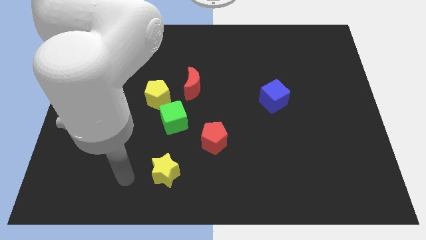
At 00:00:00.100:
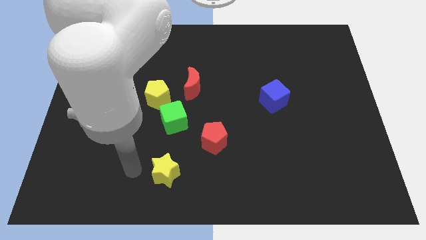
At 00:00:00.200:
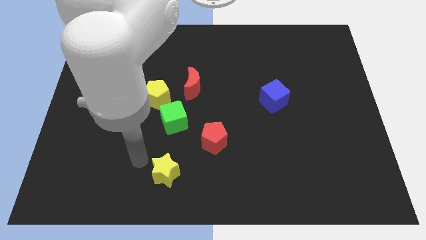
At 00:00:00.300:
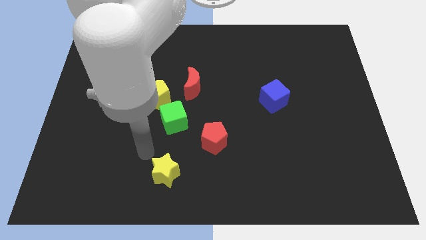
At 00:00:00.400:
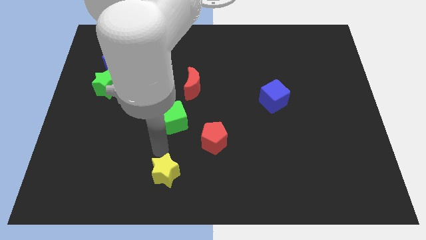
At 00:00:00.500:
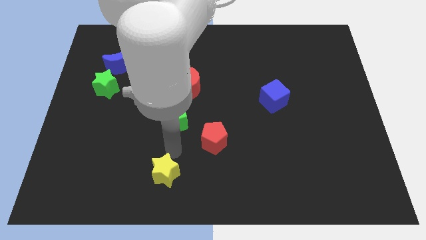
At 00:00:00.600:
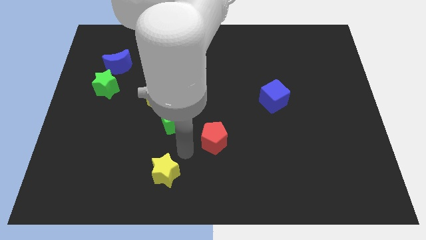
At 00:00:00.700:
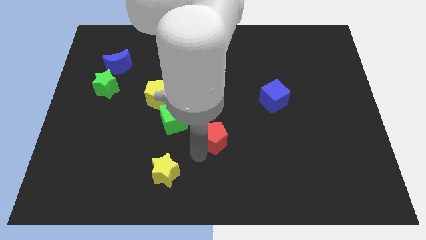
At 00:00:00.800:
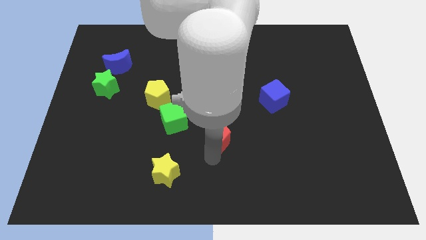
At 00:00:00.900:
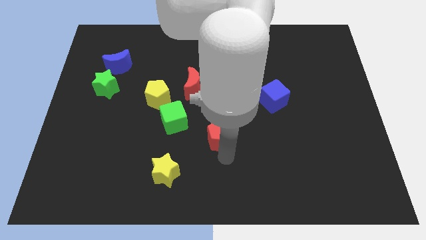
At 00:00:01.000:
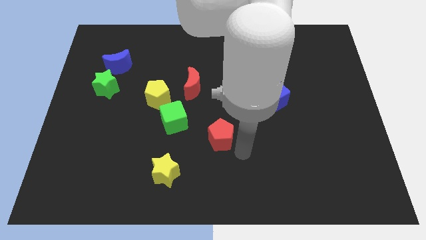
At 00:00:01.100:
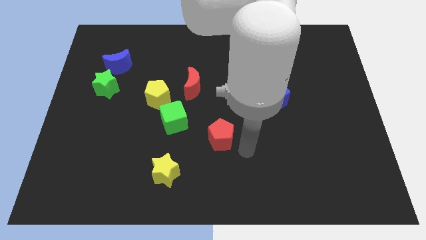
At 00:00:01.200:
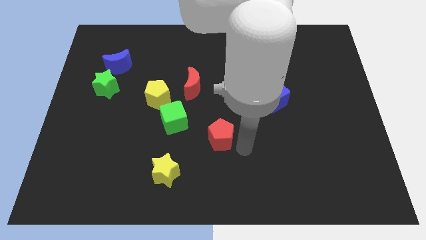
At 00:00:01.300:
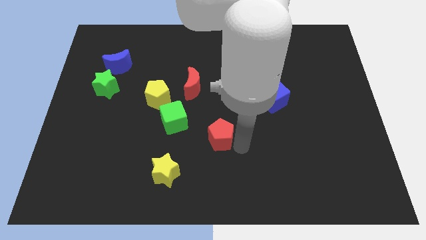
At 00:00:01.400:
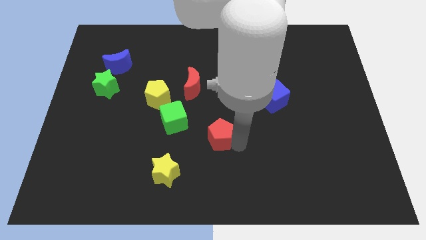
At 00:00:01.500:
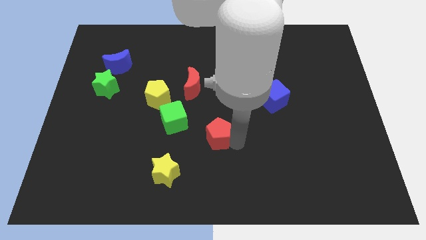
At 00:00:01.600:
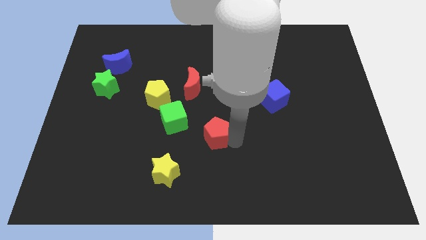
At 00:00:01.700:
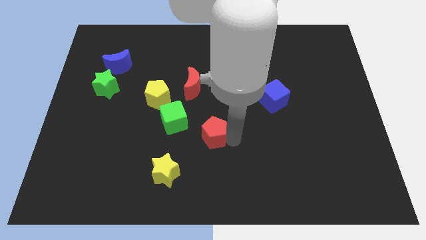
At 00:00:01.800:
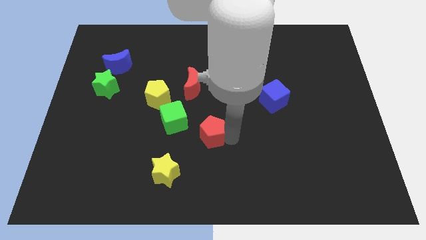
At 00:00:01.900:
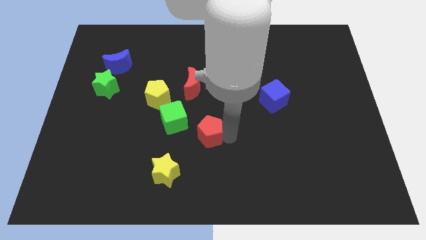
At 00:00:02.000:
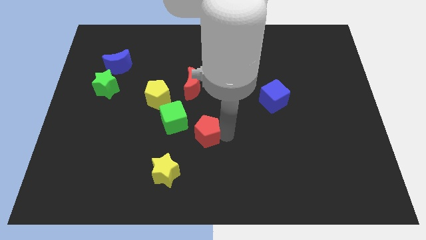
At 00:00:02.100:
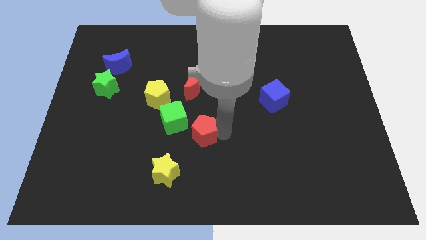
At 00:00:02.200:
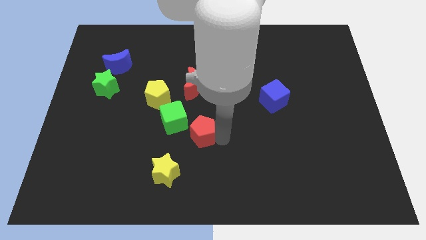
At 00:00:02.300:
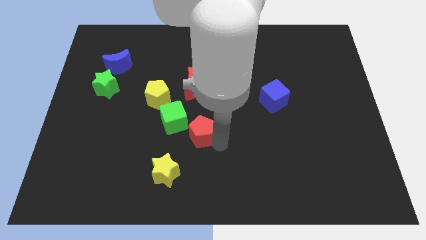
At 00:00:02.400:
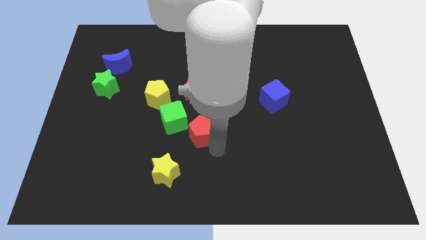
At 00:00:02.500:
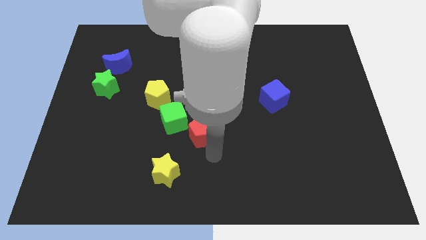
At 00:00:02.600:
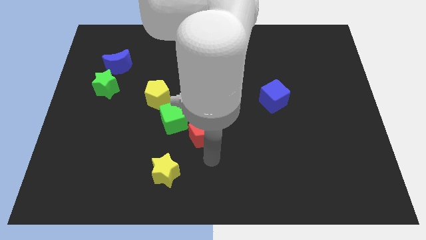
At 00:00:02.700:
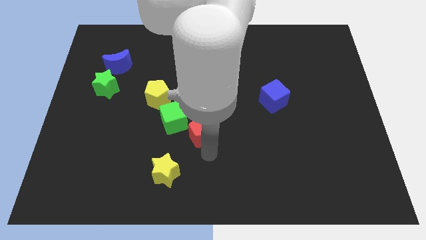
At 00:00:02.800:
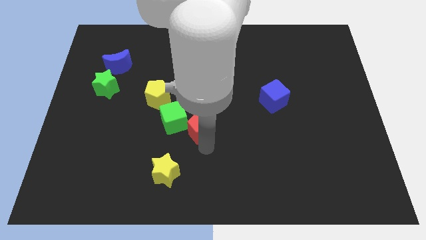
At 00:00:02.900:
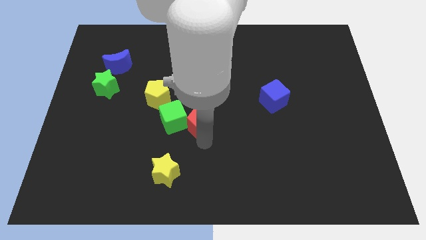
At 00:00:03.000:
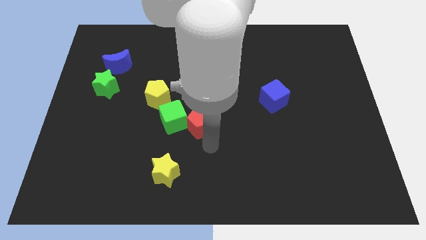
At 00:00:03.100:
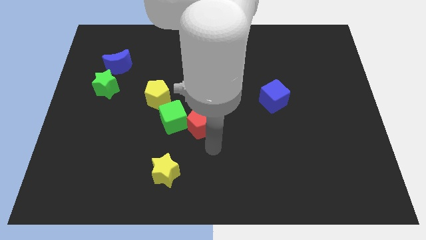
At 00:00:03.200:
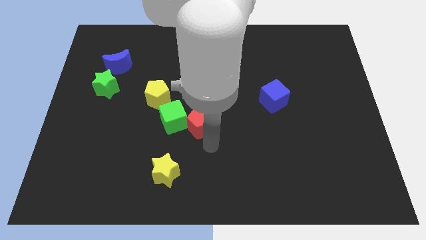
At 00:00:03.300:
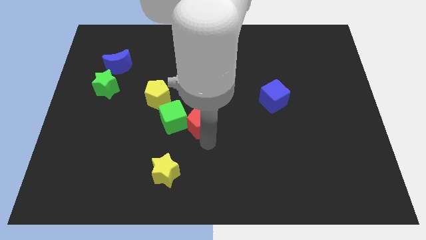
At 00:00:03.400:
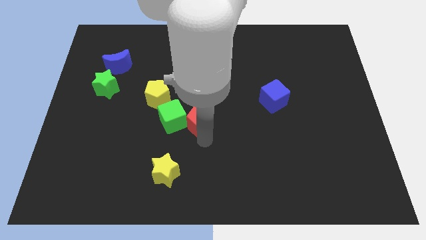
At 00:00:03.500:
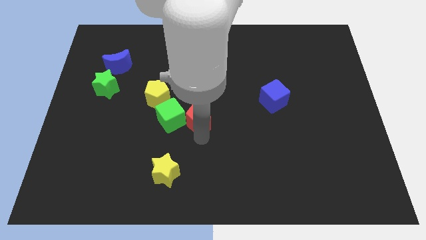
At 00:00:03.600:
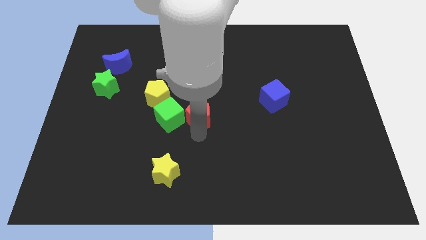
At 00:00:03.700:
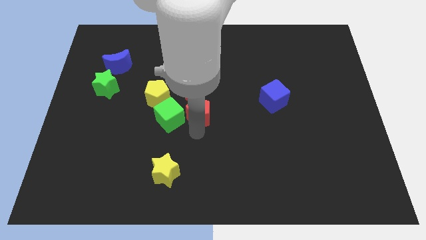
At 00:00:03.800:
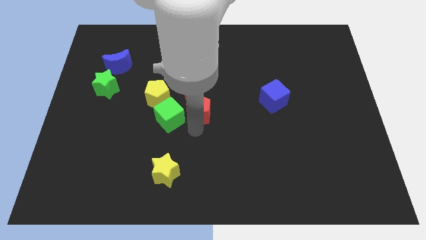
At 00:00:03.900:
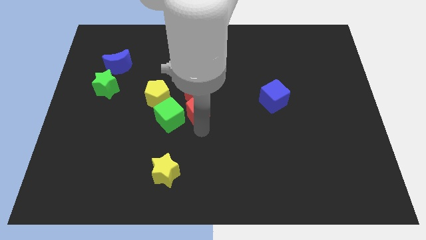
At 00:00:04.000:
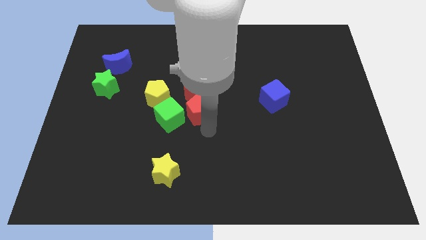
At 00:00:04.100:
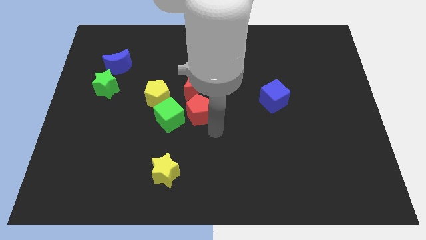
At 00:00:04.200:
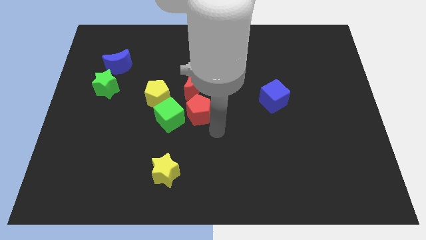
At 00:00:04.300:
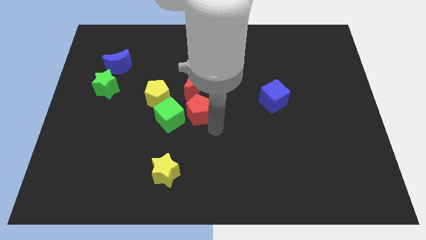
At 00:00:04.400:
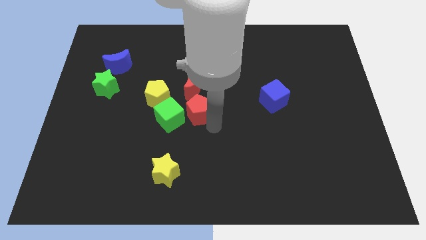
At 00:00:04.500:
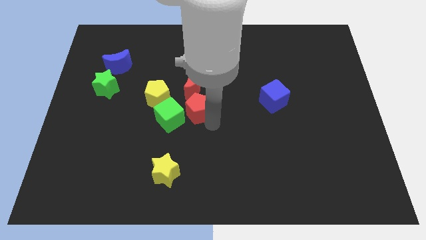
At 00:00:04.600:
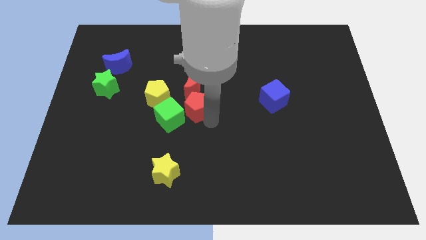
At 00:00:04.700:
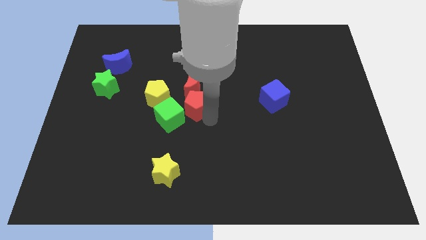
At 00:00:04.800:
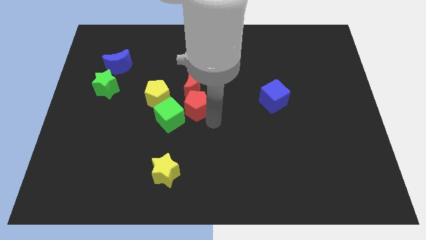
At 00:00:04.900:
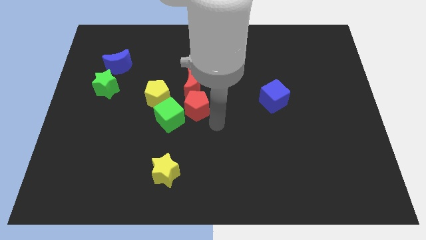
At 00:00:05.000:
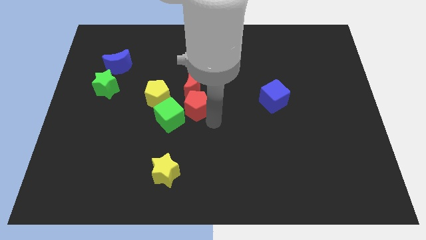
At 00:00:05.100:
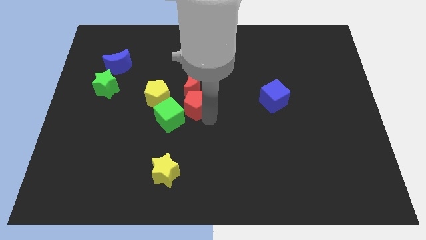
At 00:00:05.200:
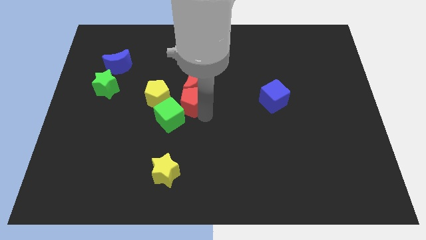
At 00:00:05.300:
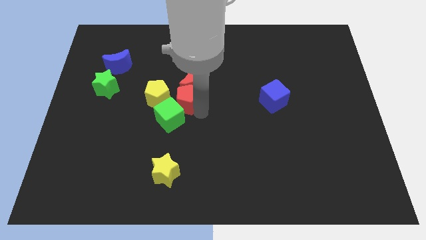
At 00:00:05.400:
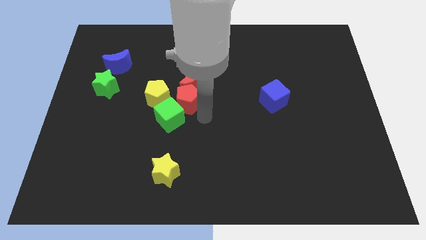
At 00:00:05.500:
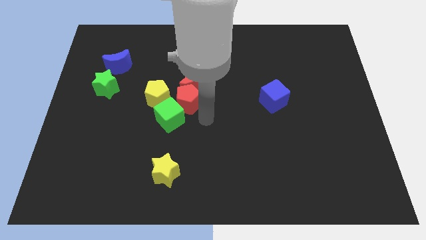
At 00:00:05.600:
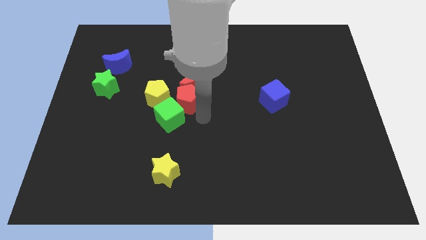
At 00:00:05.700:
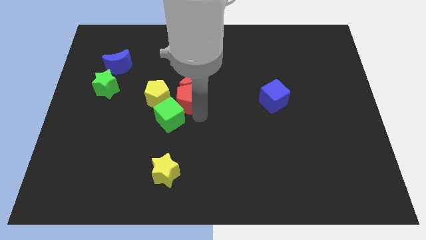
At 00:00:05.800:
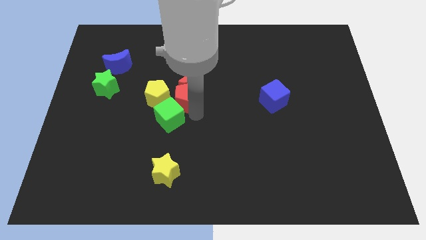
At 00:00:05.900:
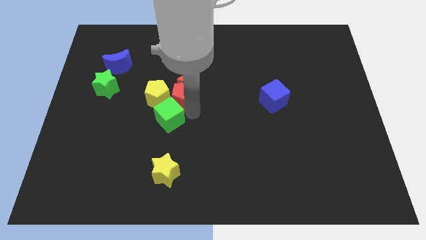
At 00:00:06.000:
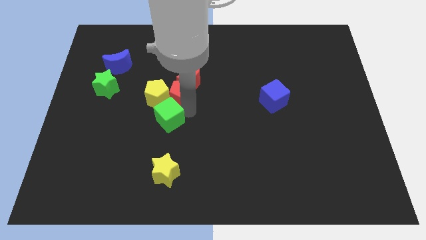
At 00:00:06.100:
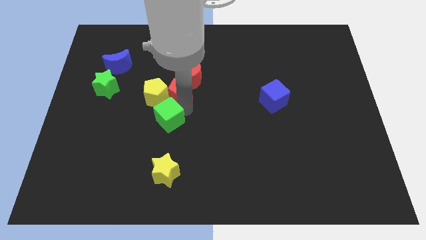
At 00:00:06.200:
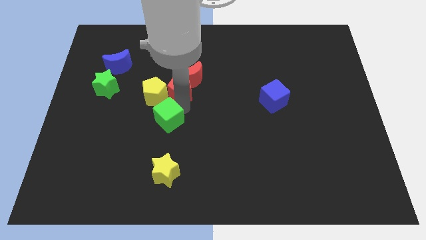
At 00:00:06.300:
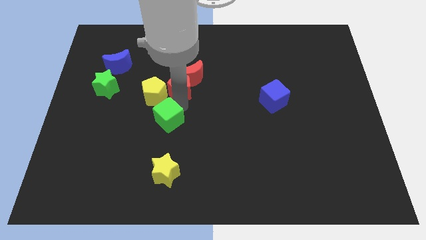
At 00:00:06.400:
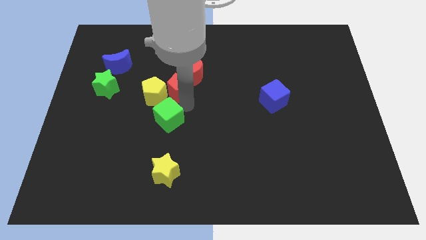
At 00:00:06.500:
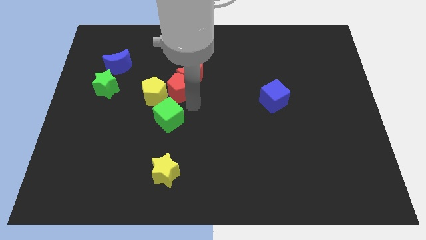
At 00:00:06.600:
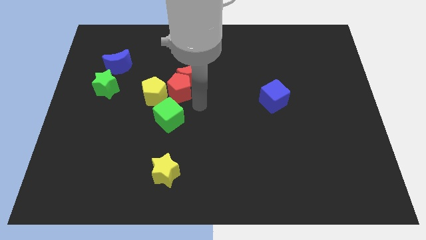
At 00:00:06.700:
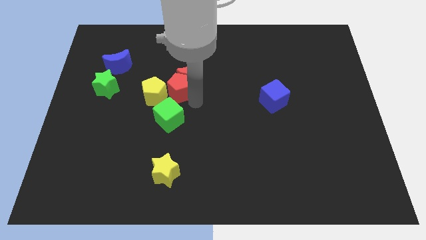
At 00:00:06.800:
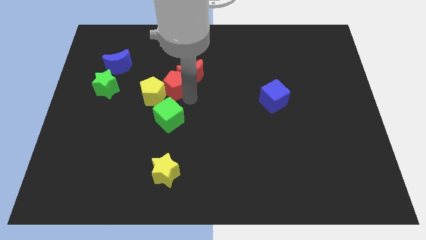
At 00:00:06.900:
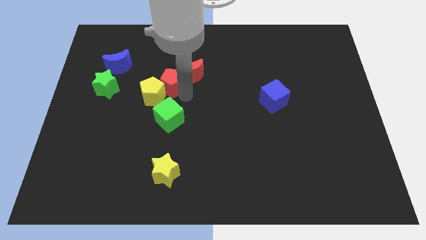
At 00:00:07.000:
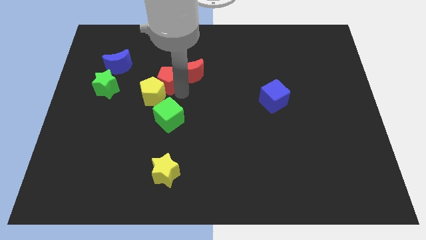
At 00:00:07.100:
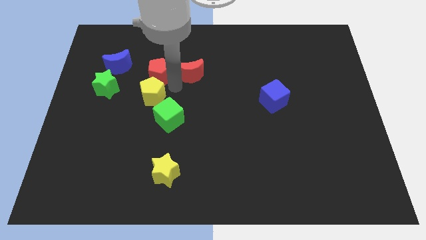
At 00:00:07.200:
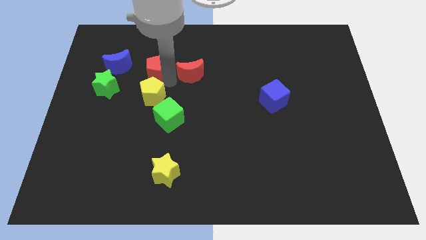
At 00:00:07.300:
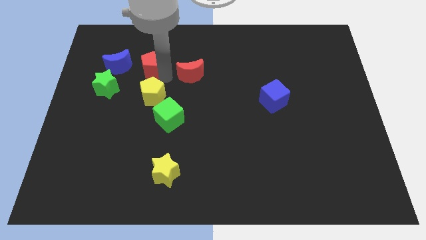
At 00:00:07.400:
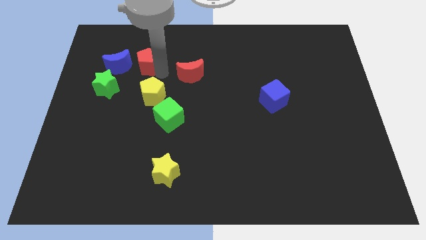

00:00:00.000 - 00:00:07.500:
move the red pentagon to the top right side of the green star

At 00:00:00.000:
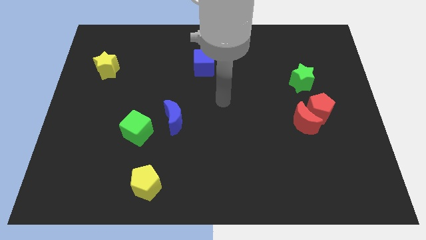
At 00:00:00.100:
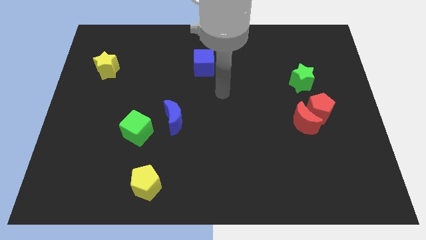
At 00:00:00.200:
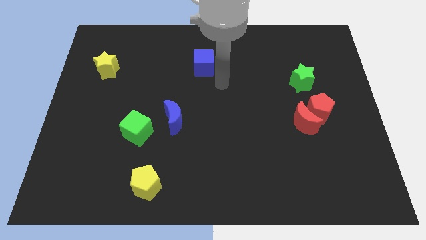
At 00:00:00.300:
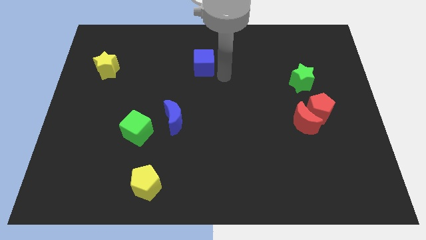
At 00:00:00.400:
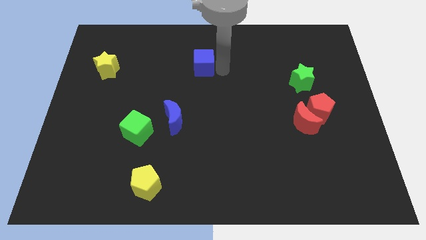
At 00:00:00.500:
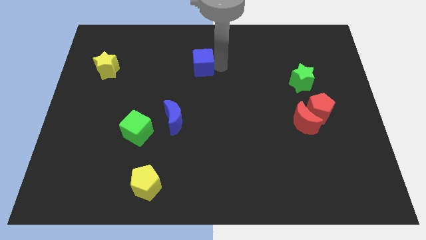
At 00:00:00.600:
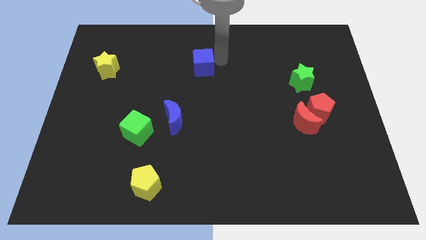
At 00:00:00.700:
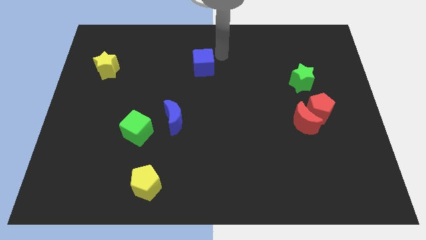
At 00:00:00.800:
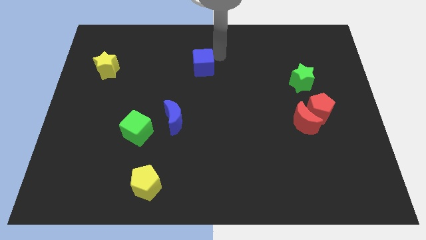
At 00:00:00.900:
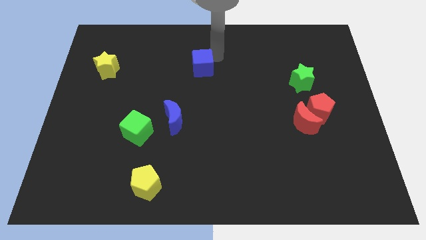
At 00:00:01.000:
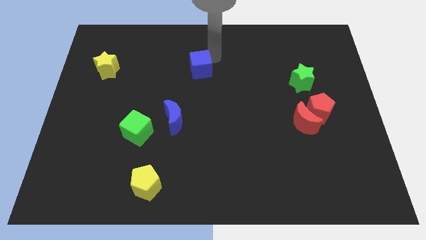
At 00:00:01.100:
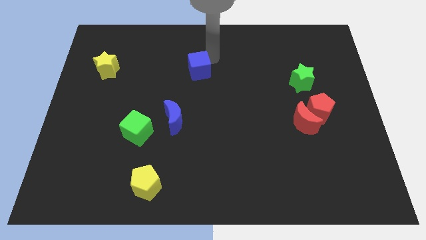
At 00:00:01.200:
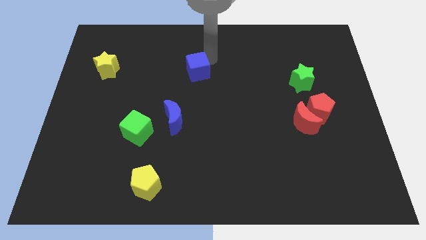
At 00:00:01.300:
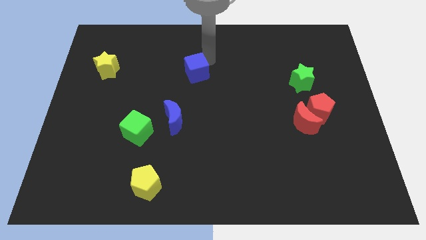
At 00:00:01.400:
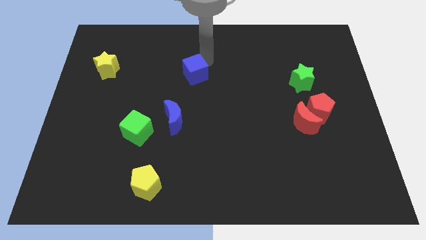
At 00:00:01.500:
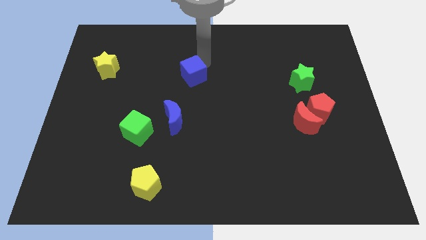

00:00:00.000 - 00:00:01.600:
move the blue cube above the blue moon
